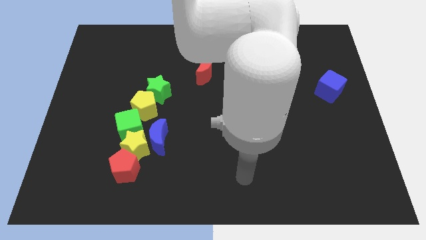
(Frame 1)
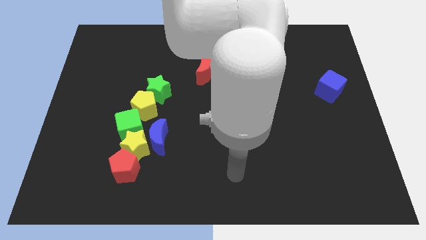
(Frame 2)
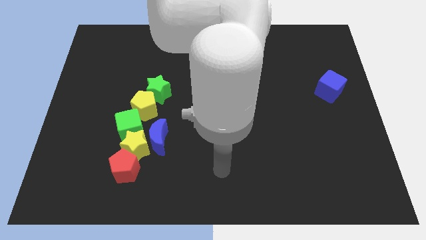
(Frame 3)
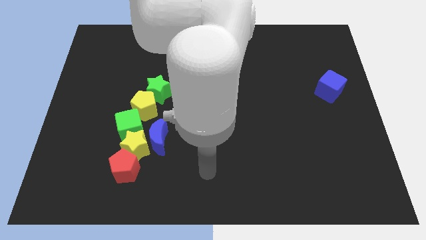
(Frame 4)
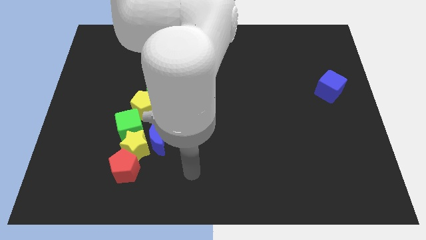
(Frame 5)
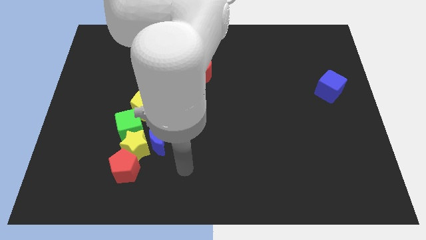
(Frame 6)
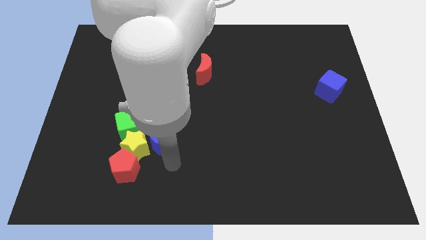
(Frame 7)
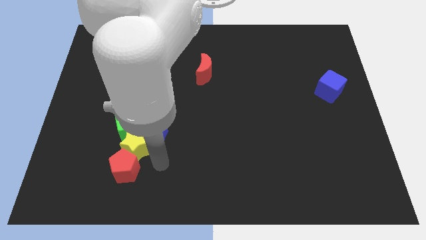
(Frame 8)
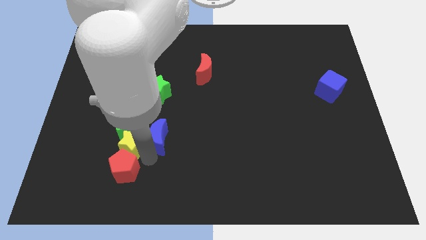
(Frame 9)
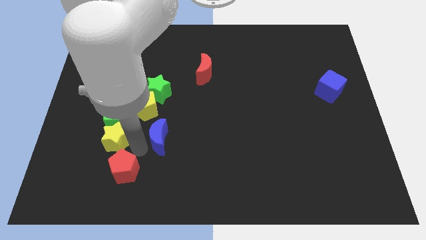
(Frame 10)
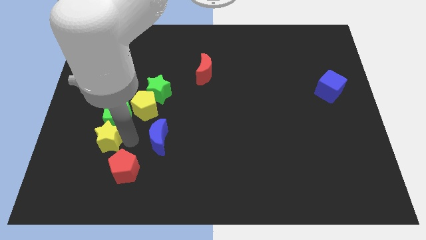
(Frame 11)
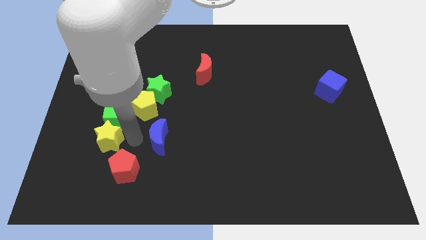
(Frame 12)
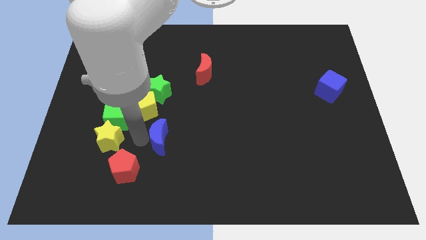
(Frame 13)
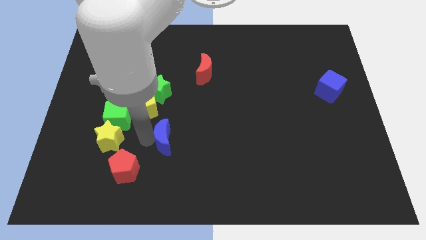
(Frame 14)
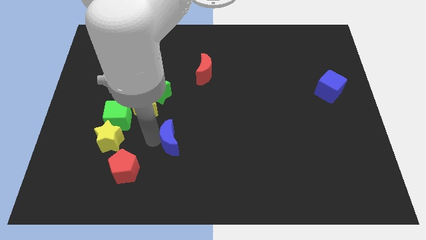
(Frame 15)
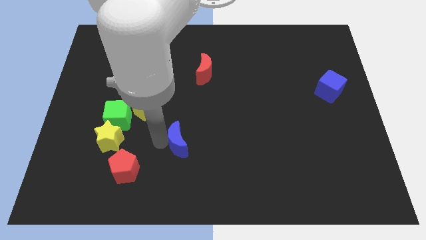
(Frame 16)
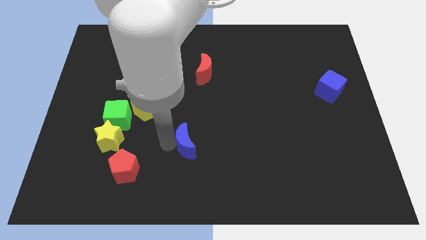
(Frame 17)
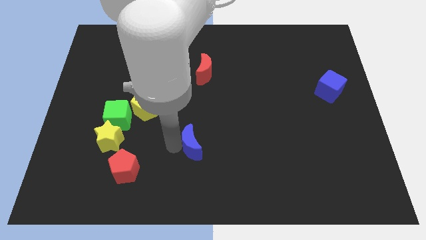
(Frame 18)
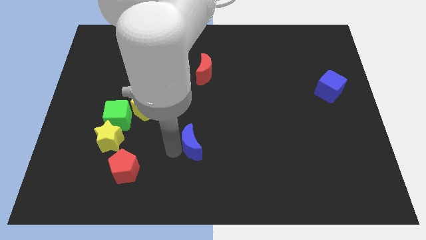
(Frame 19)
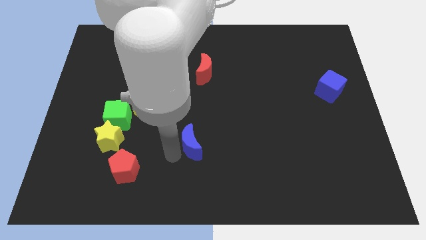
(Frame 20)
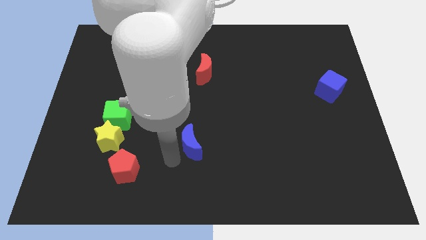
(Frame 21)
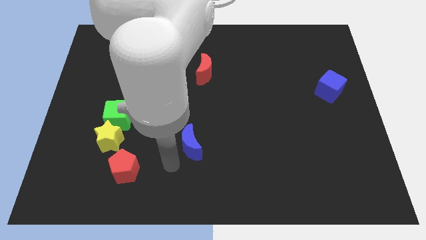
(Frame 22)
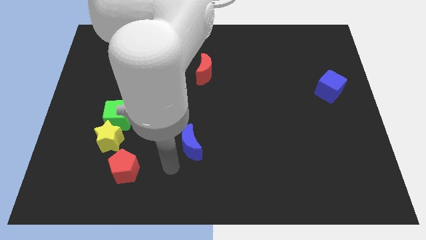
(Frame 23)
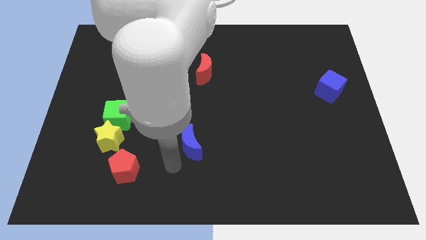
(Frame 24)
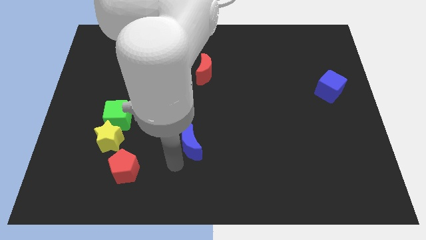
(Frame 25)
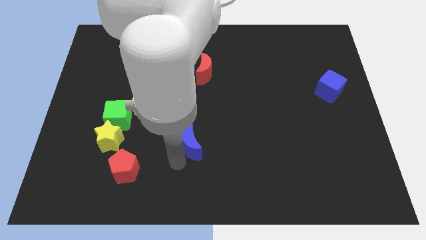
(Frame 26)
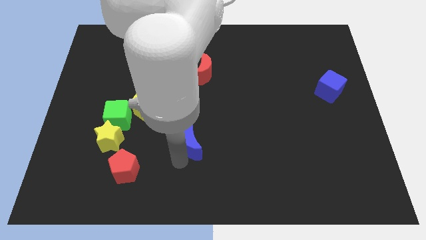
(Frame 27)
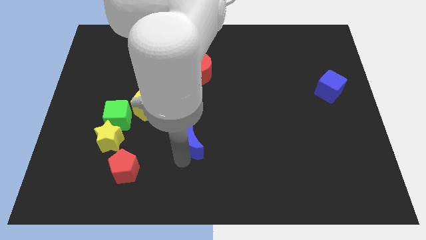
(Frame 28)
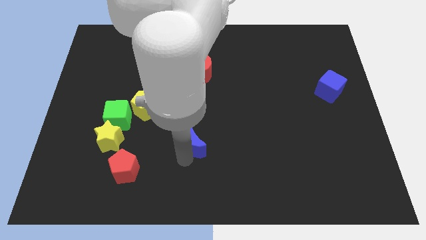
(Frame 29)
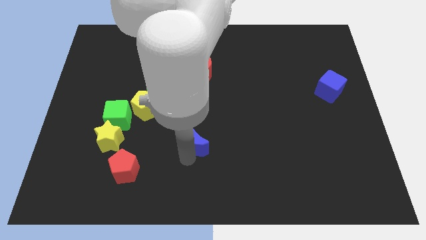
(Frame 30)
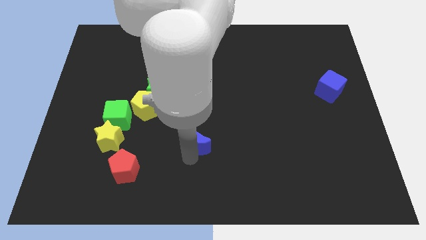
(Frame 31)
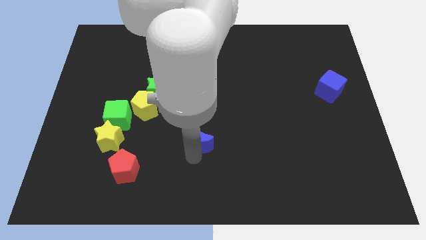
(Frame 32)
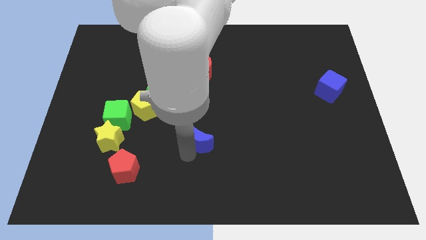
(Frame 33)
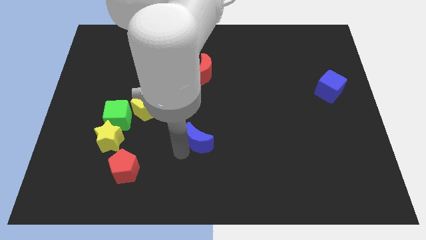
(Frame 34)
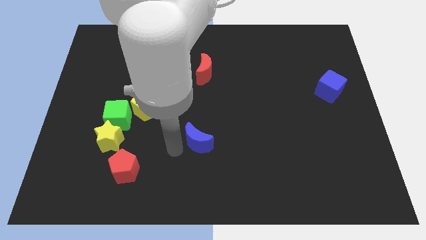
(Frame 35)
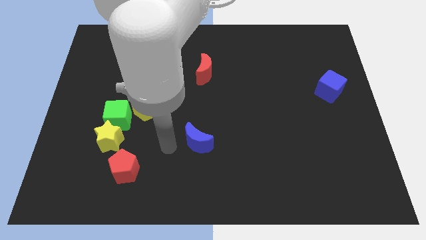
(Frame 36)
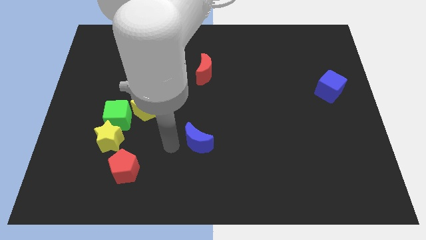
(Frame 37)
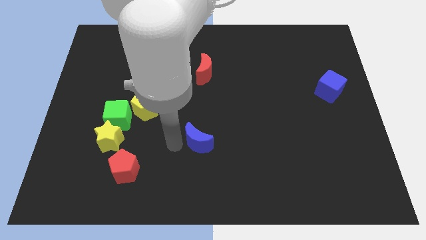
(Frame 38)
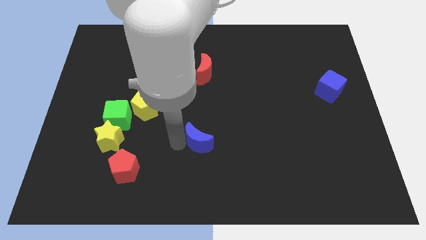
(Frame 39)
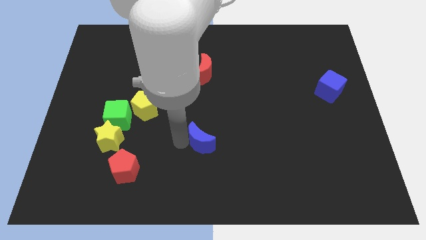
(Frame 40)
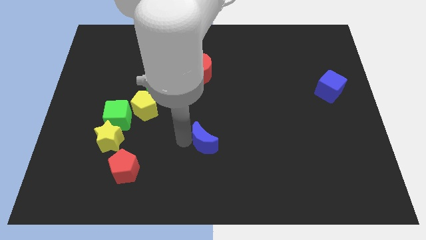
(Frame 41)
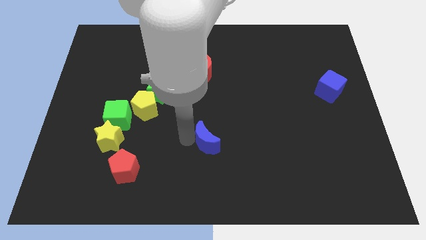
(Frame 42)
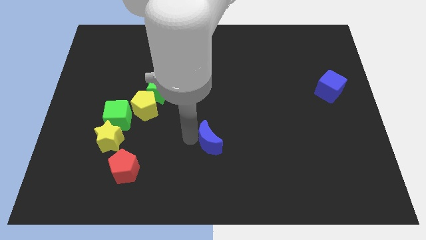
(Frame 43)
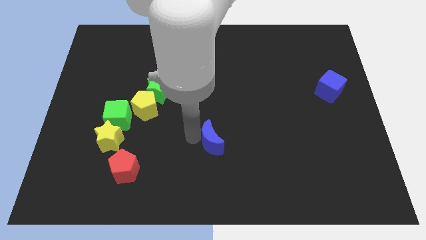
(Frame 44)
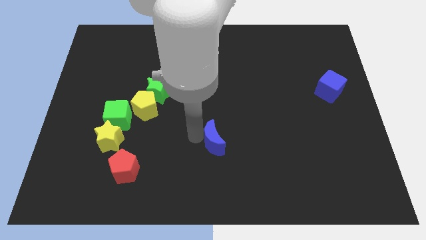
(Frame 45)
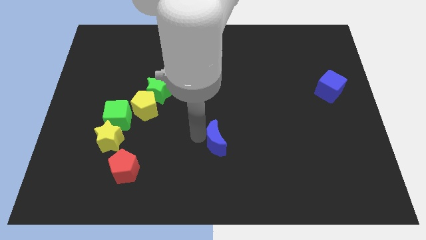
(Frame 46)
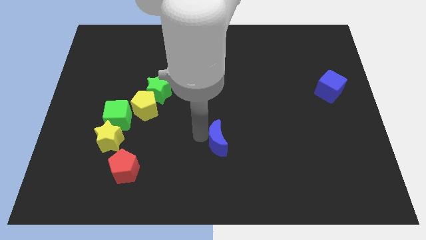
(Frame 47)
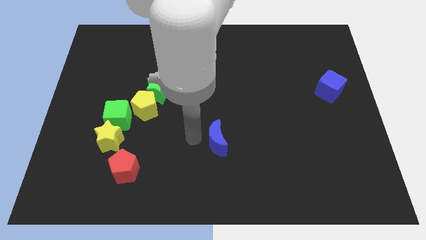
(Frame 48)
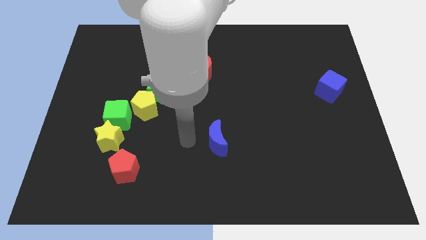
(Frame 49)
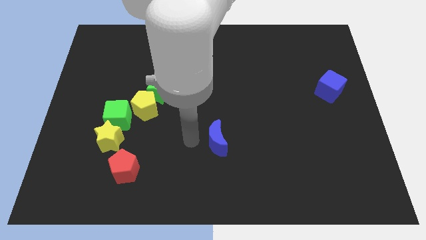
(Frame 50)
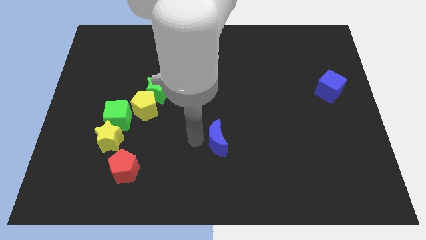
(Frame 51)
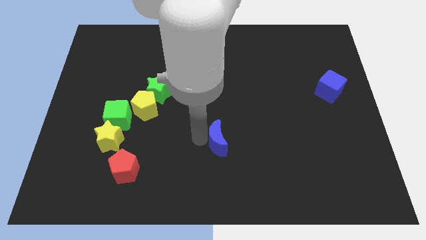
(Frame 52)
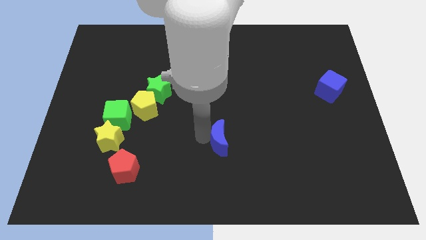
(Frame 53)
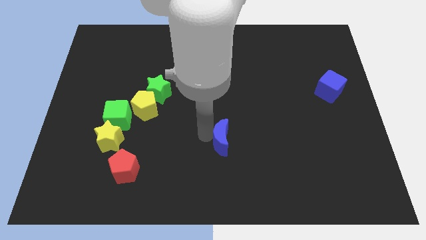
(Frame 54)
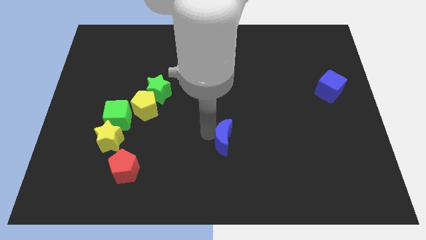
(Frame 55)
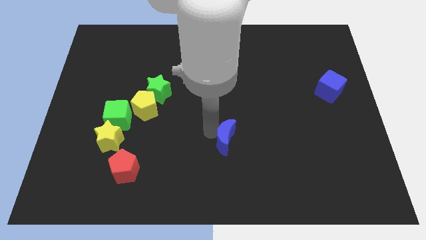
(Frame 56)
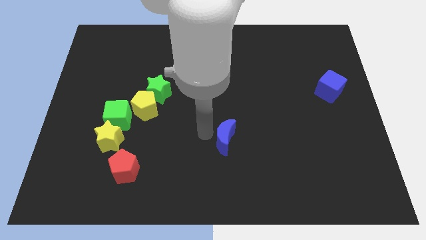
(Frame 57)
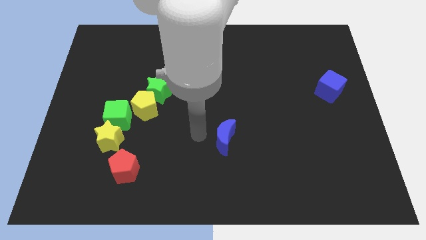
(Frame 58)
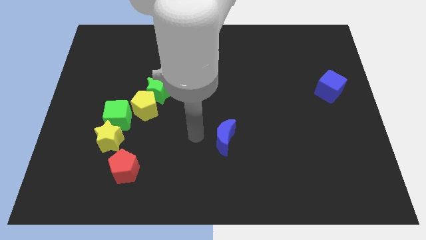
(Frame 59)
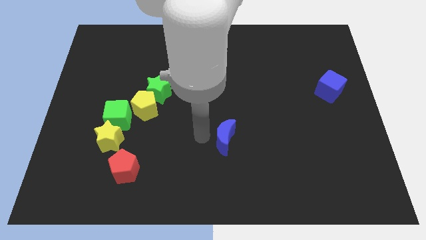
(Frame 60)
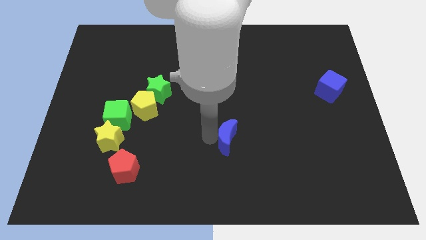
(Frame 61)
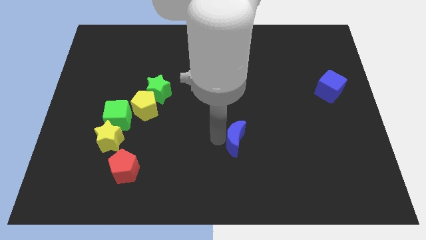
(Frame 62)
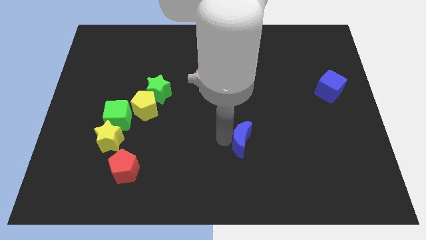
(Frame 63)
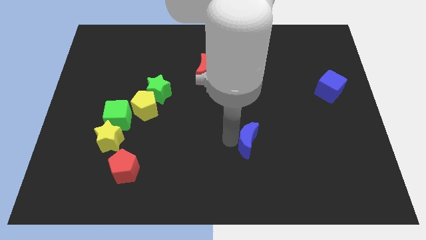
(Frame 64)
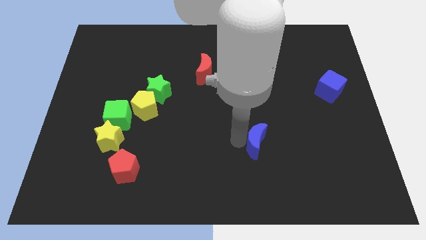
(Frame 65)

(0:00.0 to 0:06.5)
slide the blue moon to the right

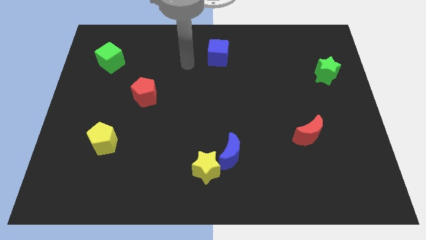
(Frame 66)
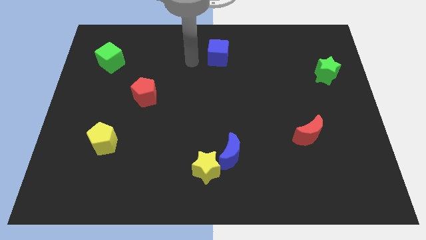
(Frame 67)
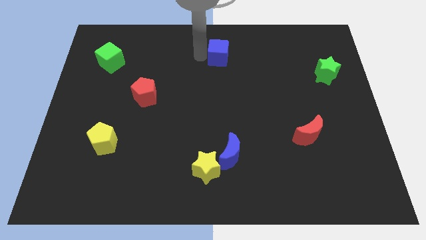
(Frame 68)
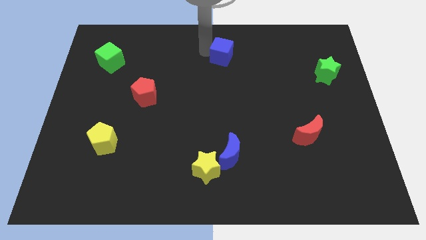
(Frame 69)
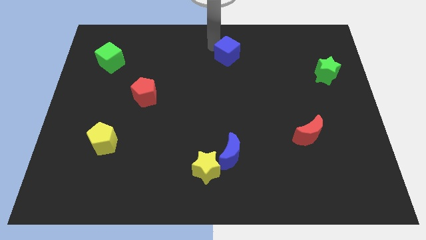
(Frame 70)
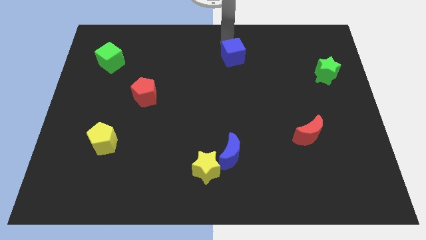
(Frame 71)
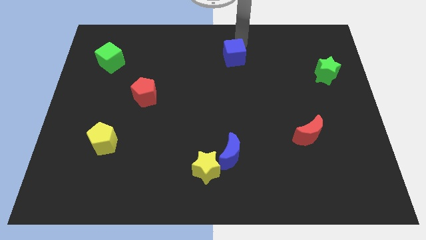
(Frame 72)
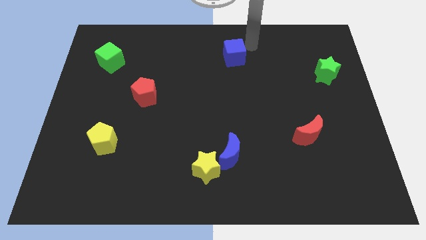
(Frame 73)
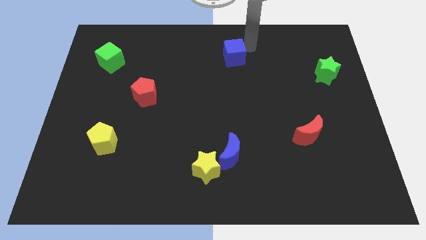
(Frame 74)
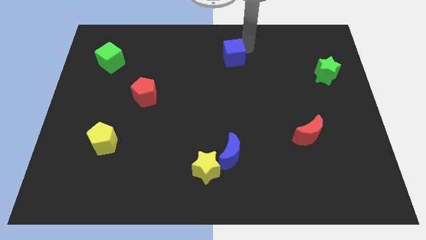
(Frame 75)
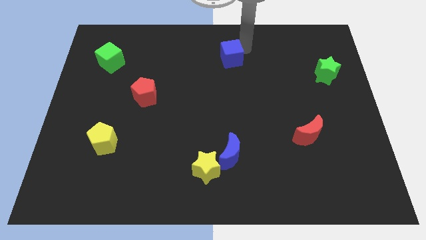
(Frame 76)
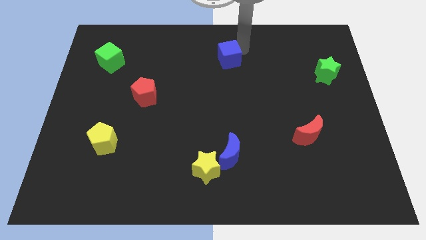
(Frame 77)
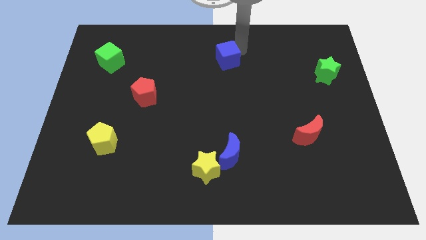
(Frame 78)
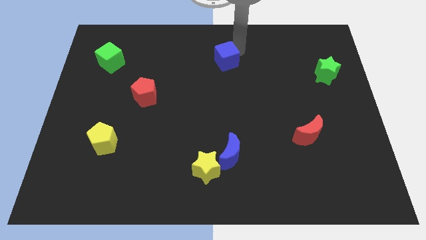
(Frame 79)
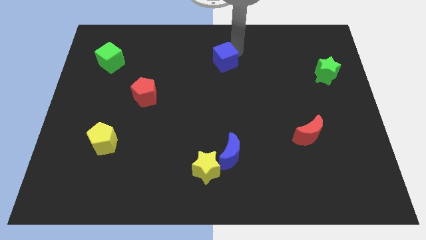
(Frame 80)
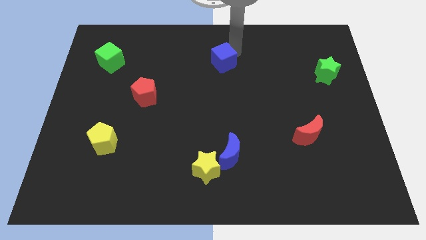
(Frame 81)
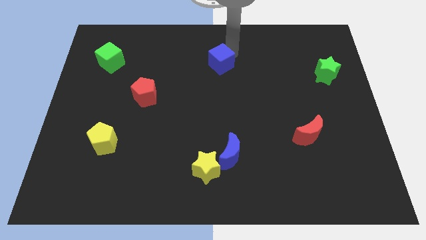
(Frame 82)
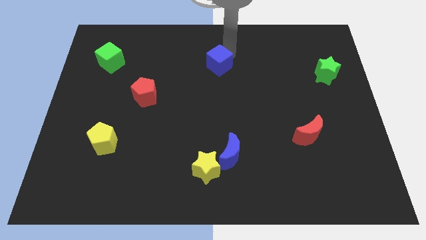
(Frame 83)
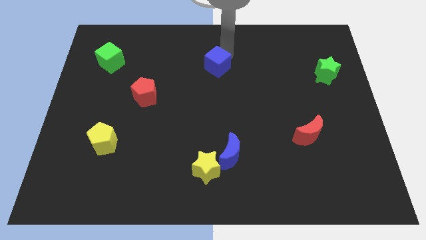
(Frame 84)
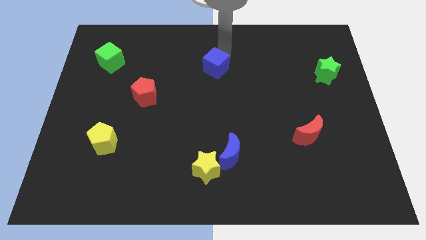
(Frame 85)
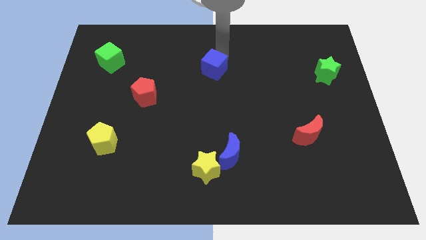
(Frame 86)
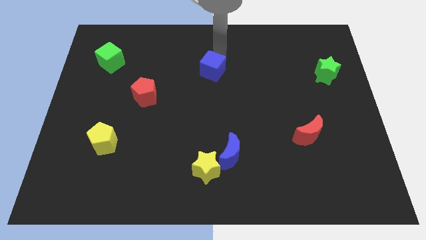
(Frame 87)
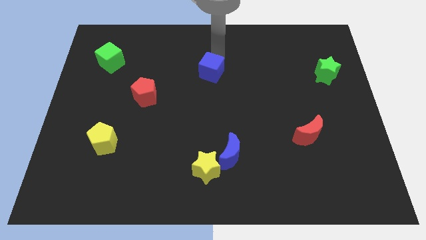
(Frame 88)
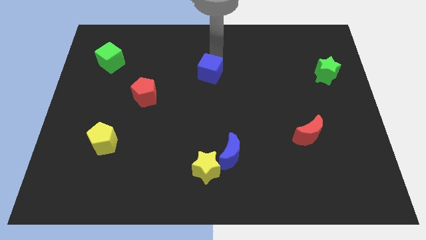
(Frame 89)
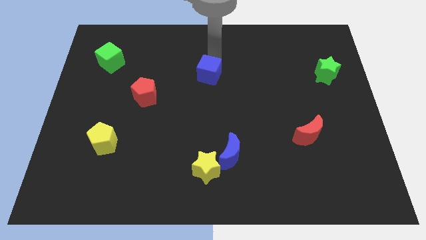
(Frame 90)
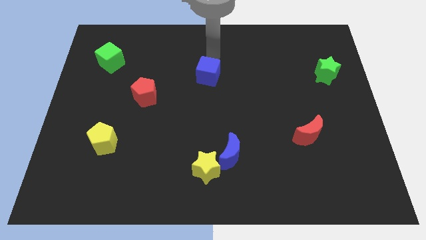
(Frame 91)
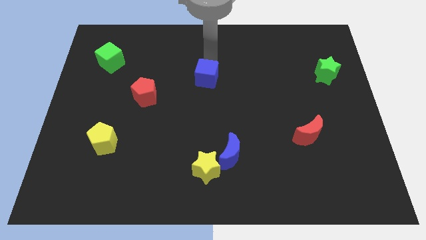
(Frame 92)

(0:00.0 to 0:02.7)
push the blue cube down a little bit
